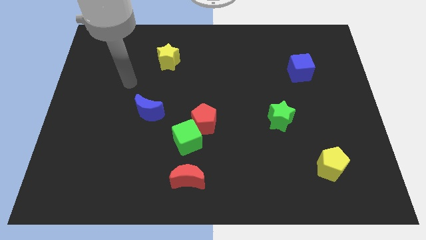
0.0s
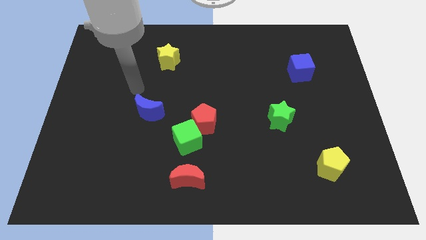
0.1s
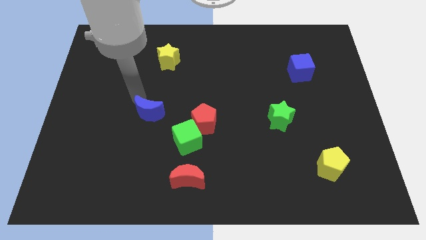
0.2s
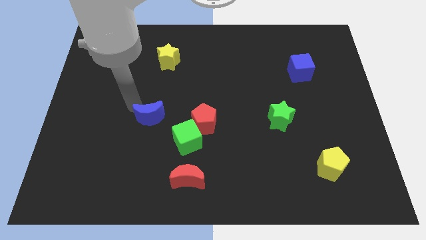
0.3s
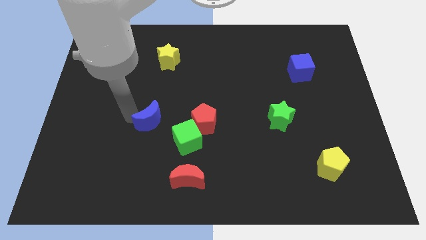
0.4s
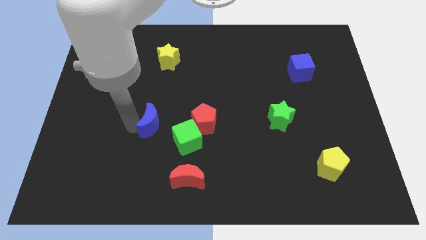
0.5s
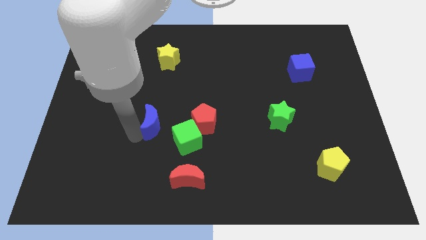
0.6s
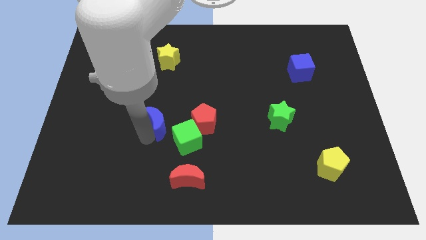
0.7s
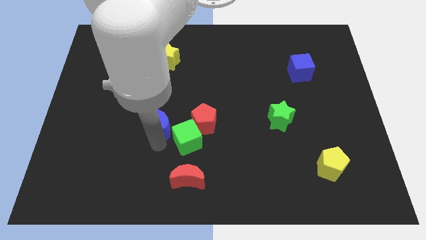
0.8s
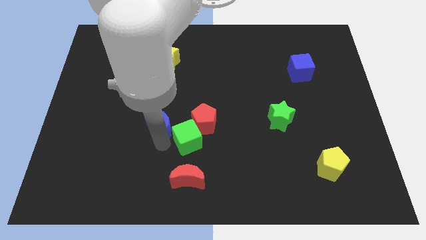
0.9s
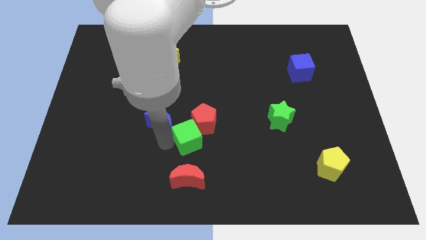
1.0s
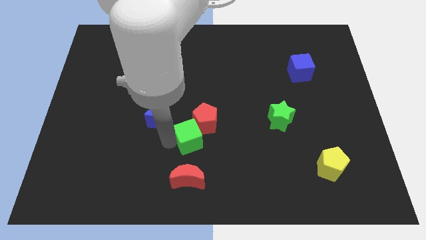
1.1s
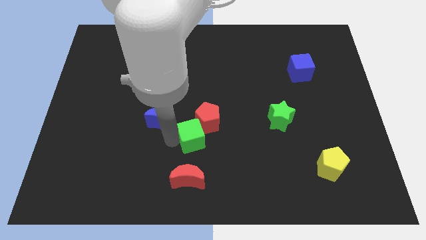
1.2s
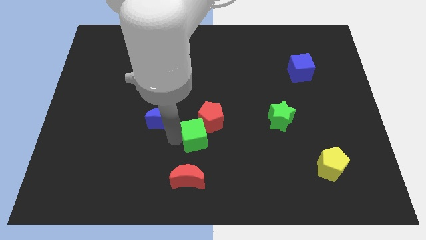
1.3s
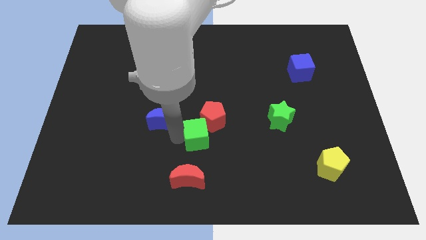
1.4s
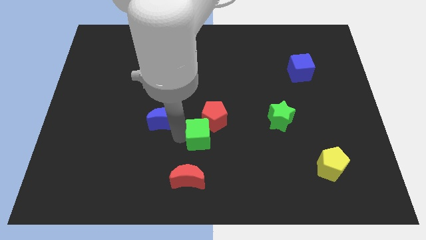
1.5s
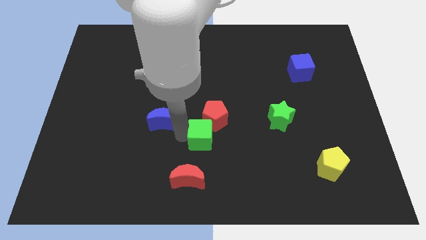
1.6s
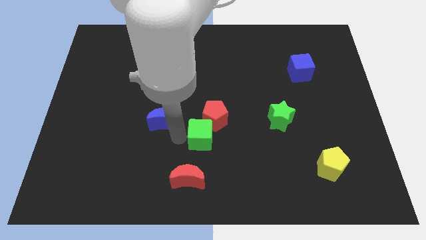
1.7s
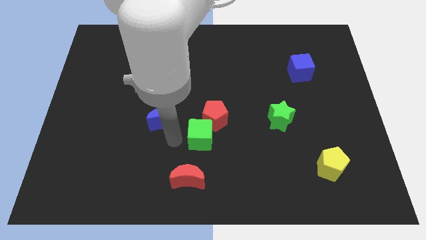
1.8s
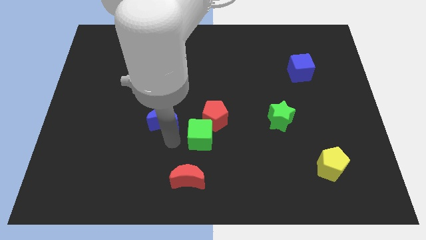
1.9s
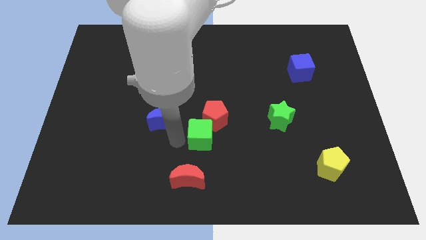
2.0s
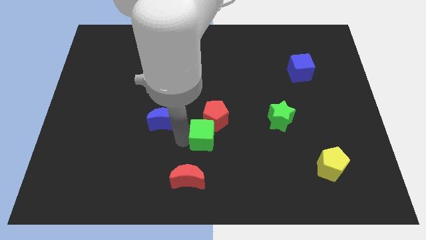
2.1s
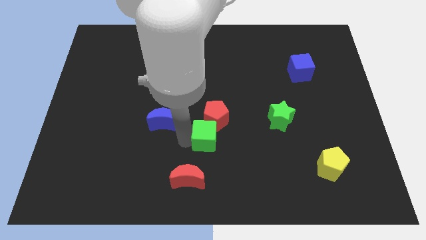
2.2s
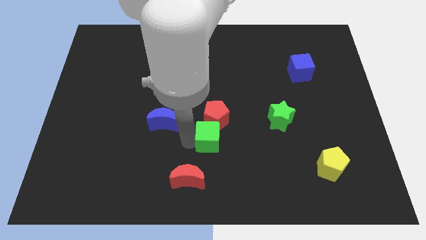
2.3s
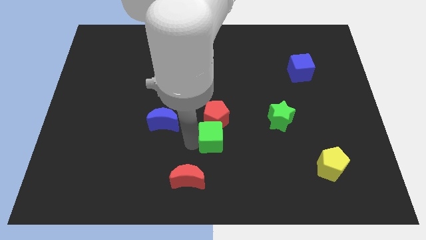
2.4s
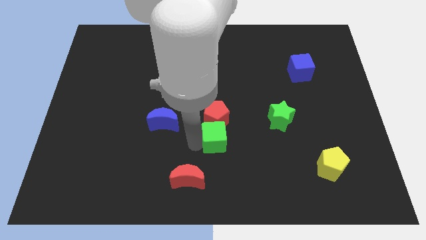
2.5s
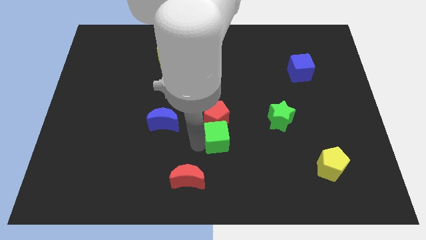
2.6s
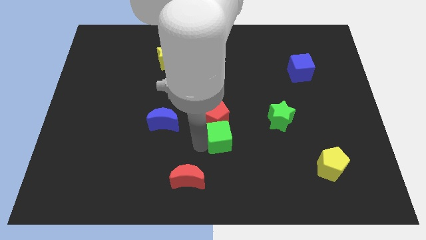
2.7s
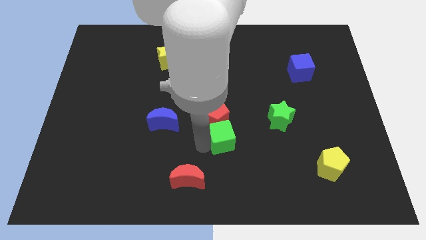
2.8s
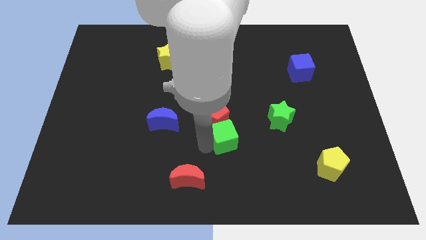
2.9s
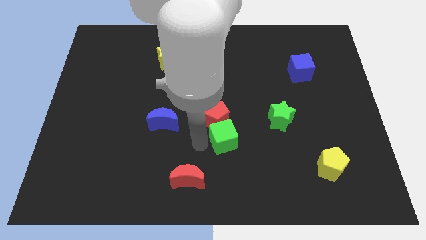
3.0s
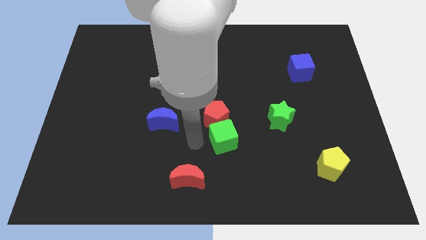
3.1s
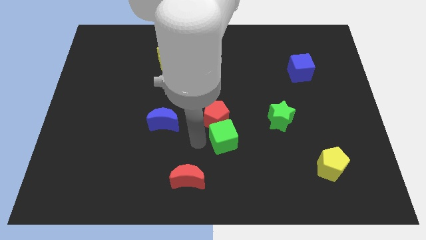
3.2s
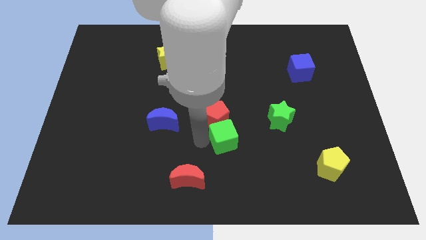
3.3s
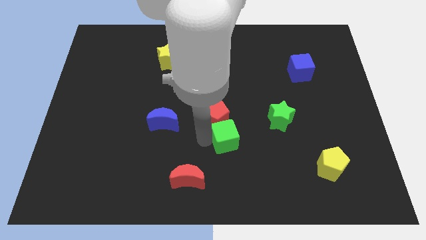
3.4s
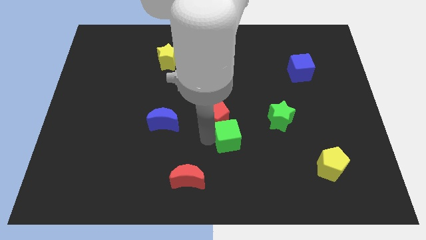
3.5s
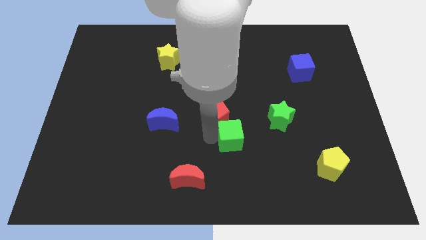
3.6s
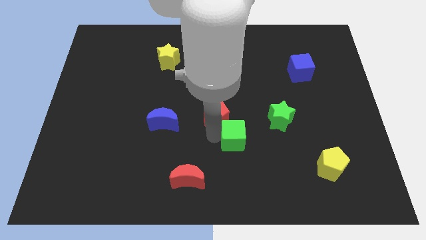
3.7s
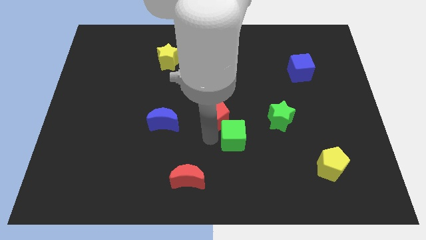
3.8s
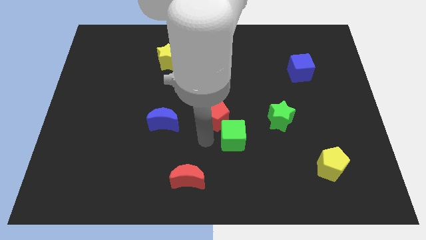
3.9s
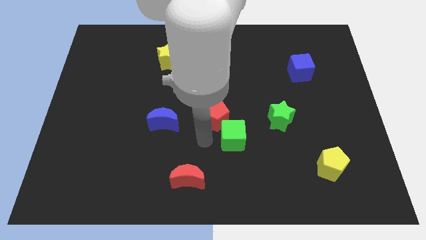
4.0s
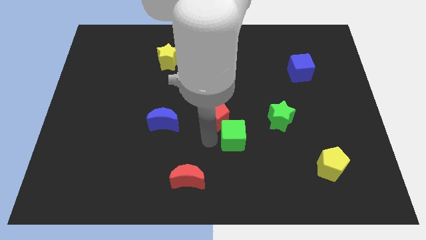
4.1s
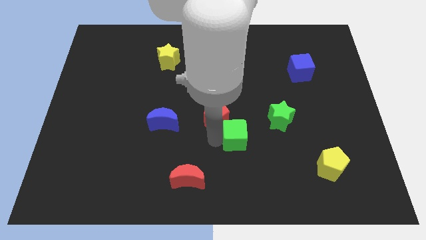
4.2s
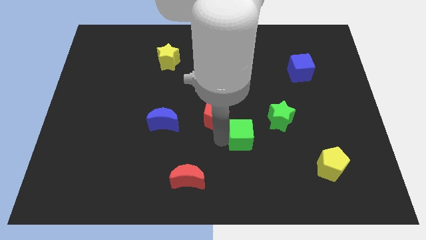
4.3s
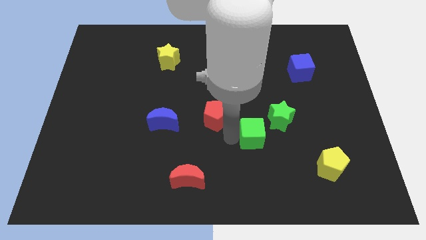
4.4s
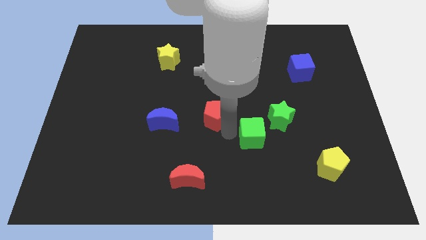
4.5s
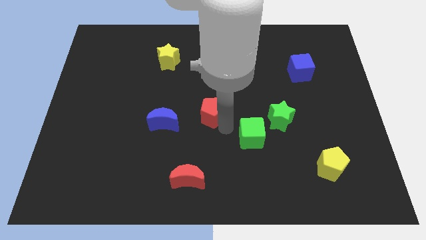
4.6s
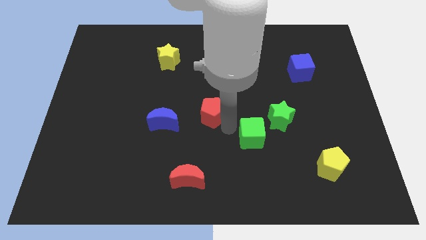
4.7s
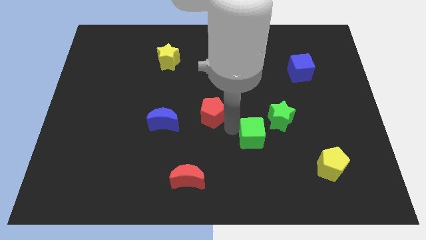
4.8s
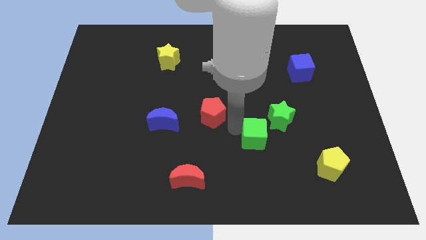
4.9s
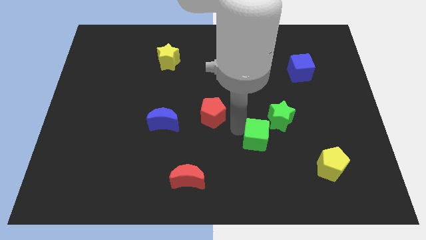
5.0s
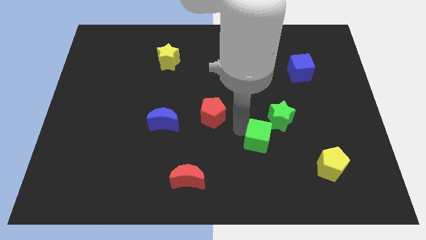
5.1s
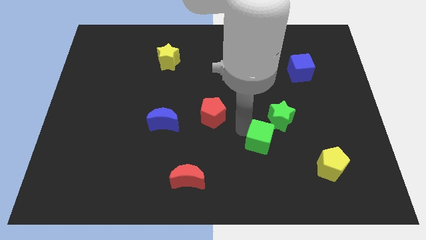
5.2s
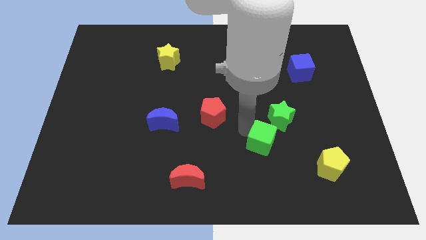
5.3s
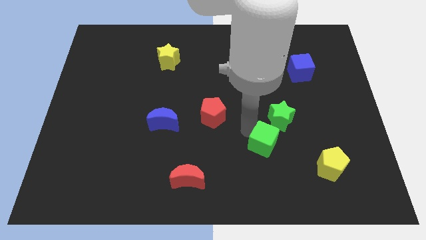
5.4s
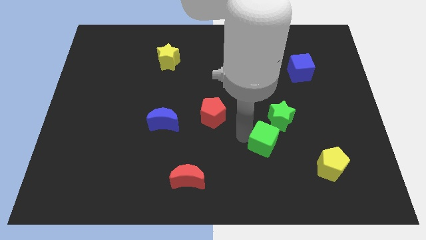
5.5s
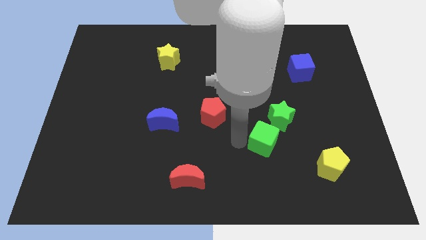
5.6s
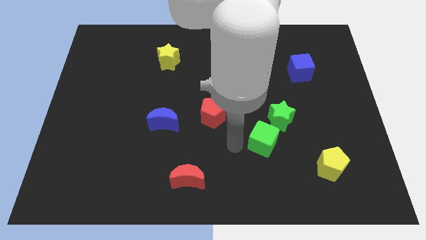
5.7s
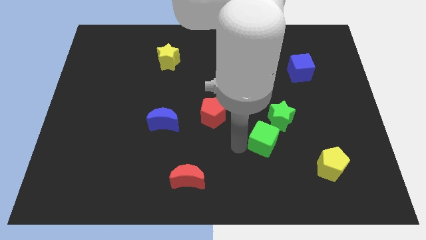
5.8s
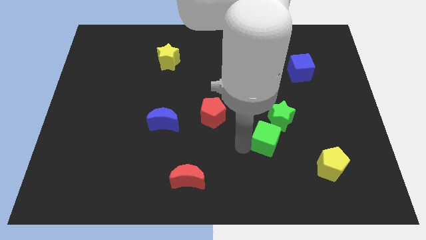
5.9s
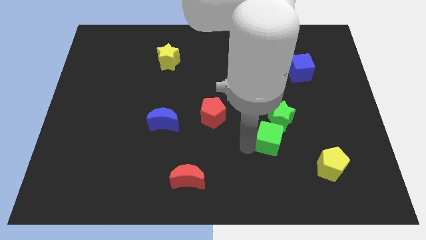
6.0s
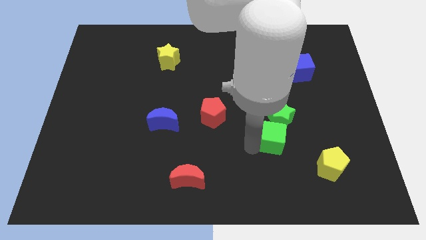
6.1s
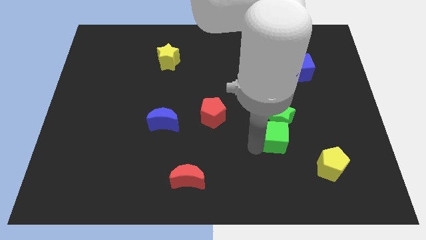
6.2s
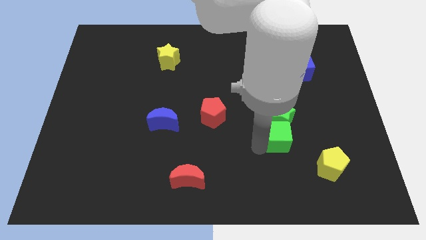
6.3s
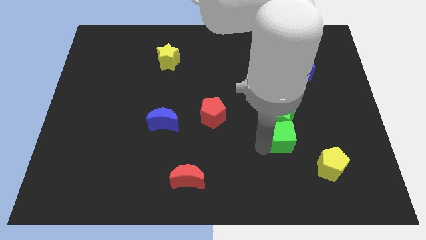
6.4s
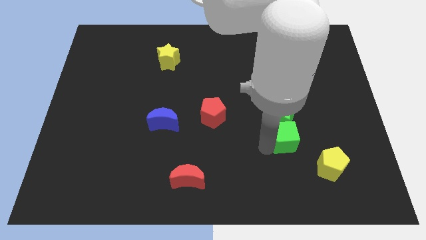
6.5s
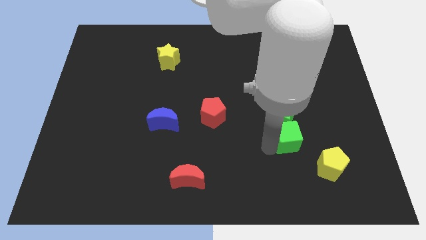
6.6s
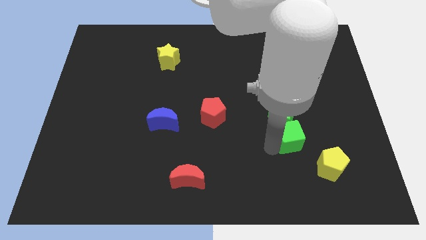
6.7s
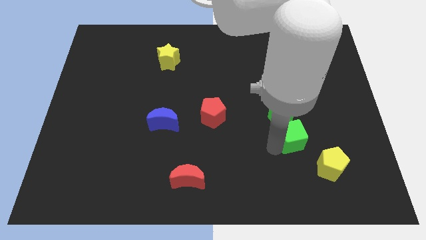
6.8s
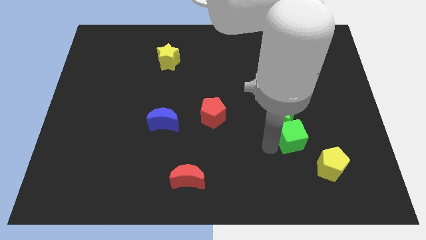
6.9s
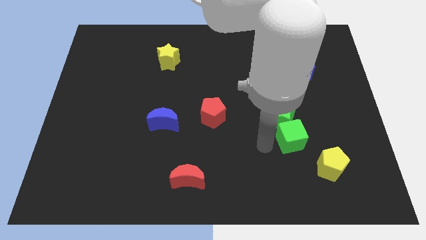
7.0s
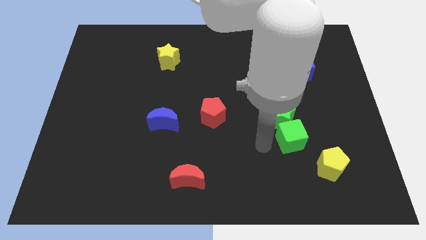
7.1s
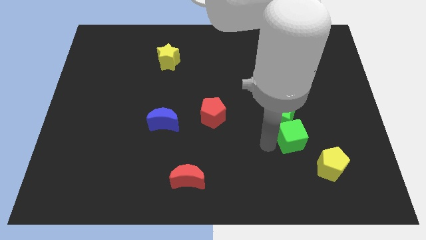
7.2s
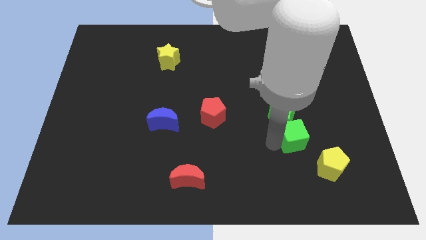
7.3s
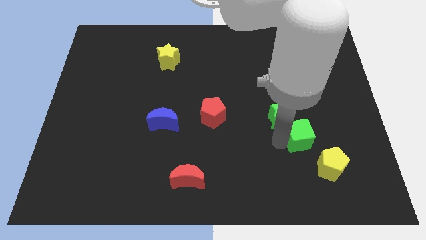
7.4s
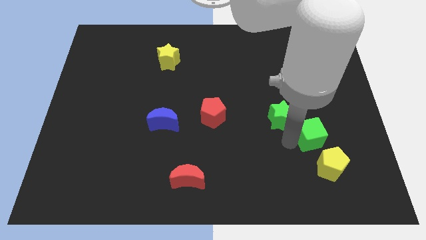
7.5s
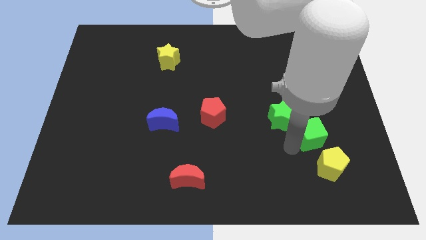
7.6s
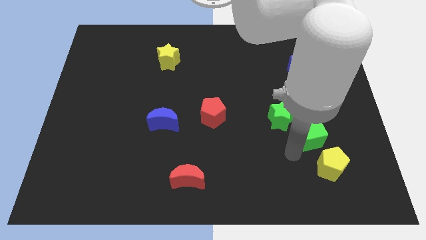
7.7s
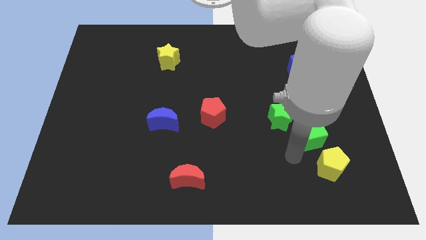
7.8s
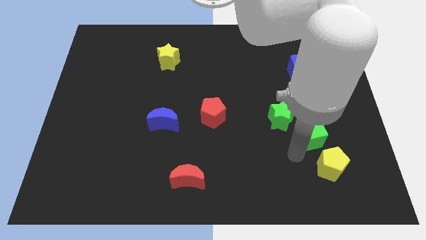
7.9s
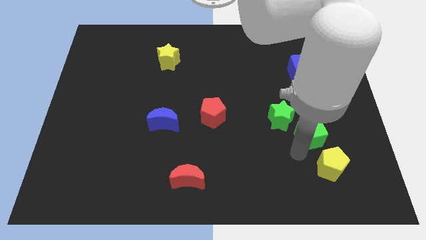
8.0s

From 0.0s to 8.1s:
move the green cube just right of the green star
